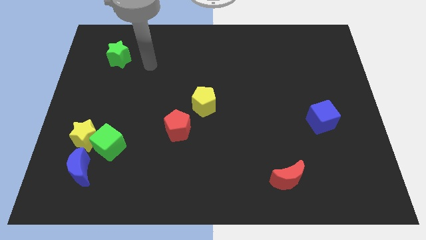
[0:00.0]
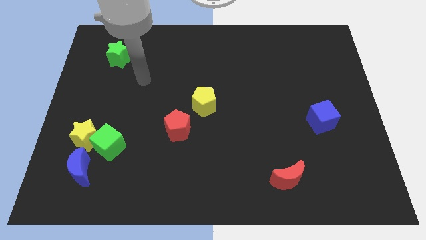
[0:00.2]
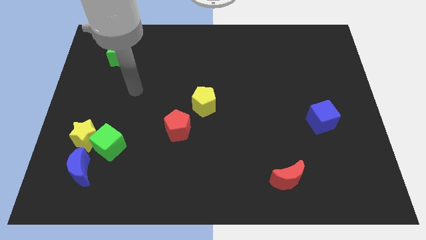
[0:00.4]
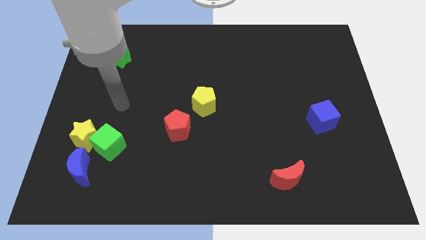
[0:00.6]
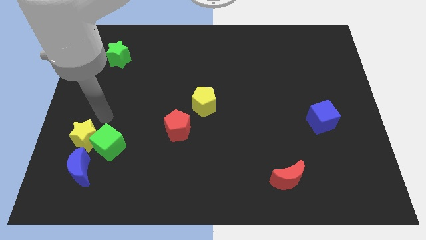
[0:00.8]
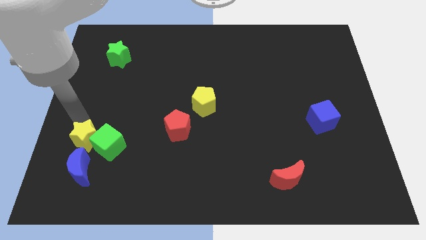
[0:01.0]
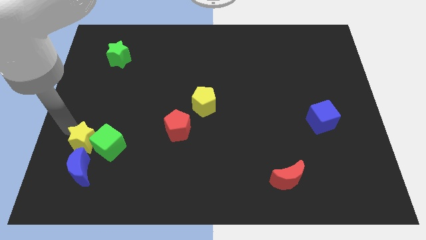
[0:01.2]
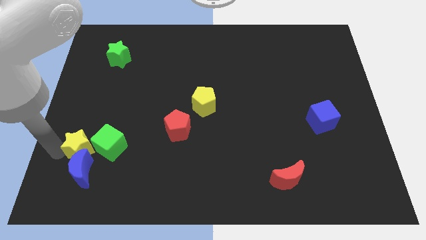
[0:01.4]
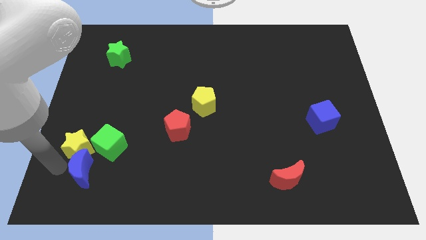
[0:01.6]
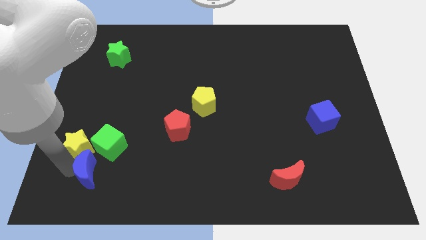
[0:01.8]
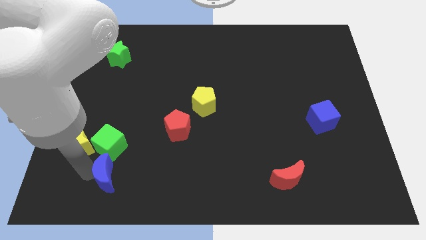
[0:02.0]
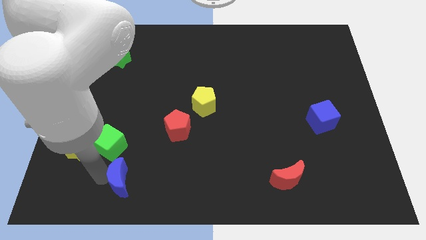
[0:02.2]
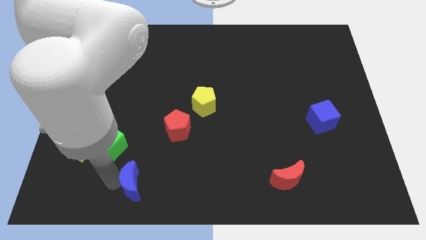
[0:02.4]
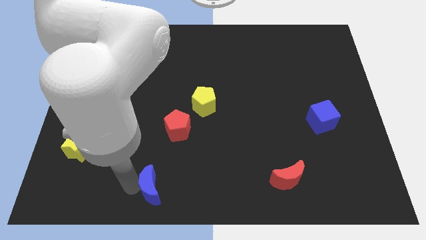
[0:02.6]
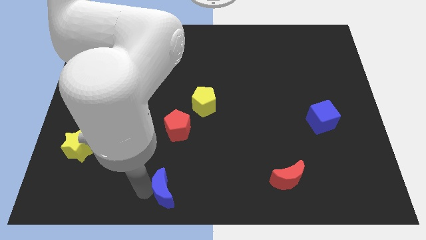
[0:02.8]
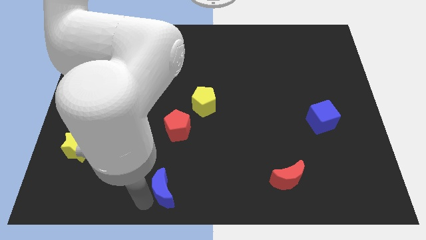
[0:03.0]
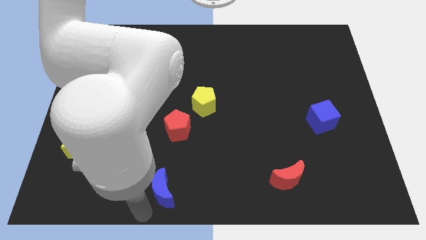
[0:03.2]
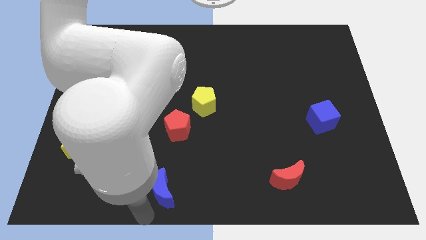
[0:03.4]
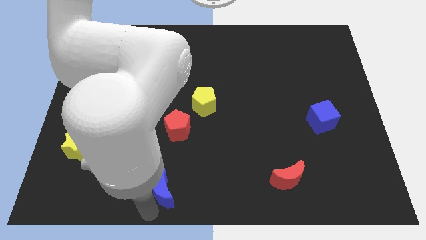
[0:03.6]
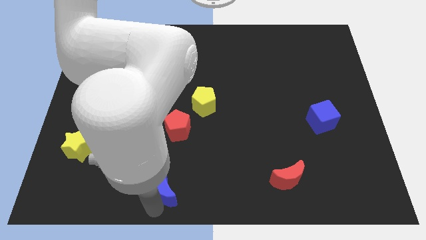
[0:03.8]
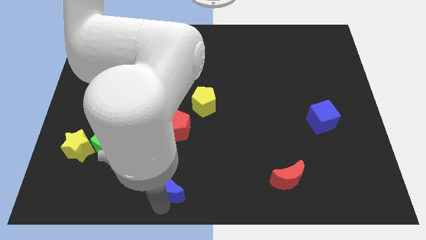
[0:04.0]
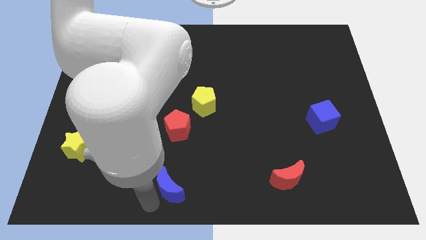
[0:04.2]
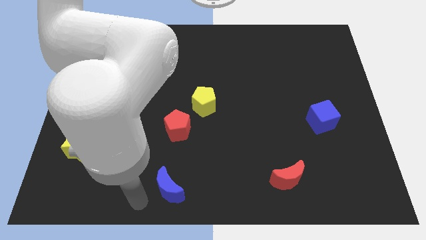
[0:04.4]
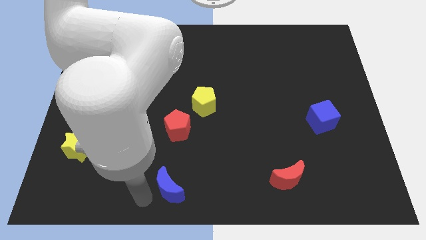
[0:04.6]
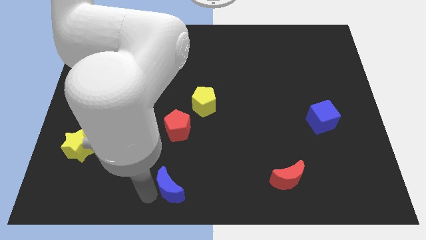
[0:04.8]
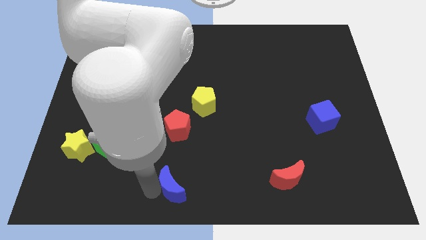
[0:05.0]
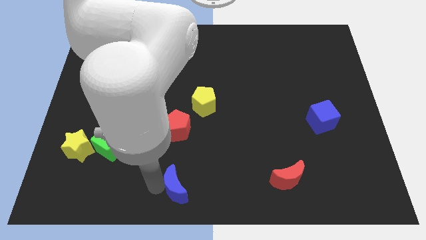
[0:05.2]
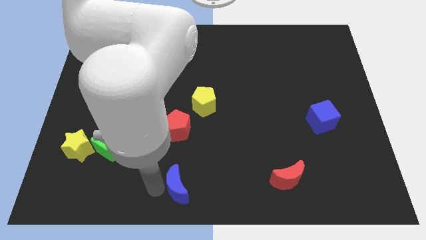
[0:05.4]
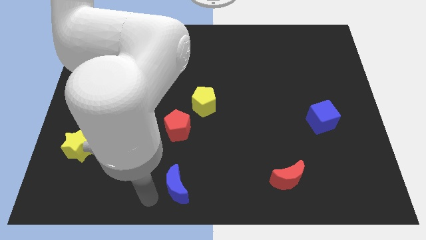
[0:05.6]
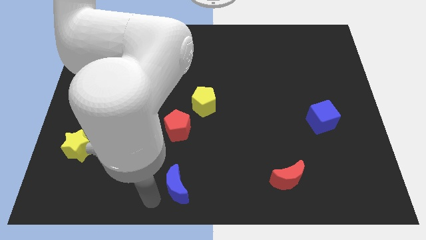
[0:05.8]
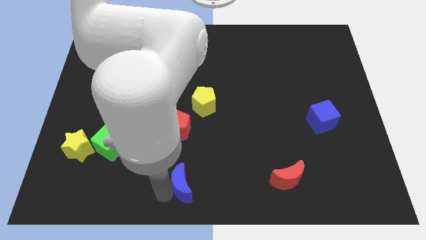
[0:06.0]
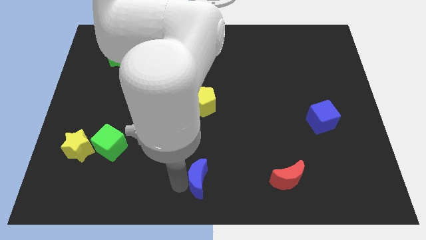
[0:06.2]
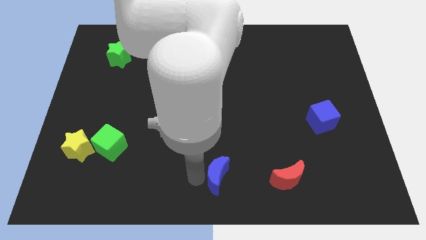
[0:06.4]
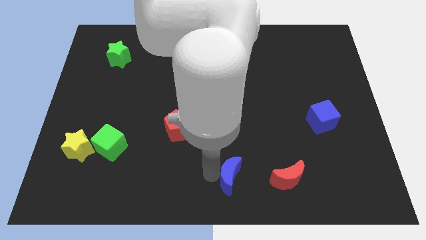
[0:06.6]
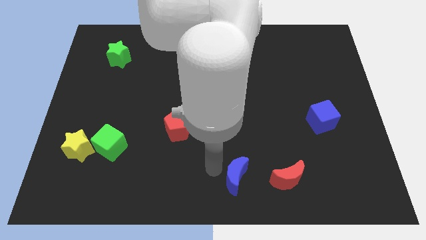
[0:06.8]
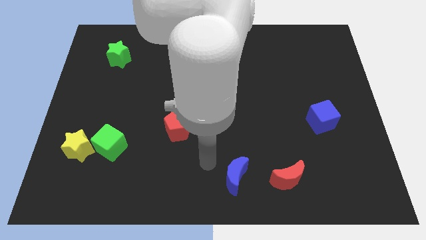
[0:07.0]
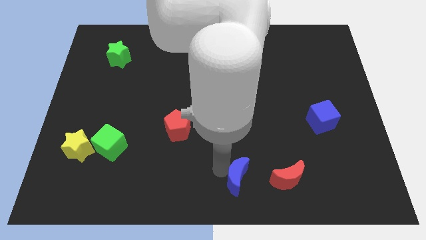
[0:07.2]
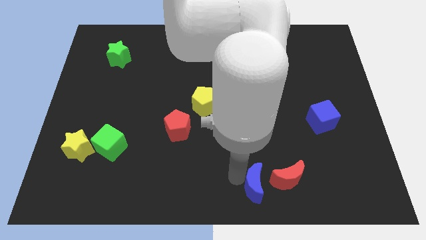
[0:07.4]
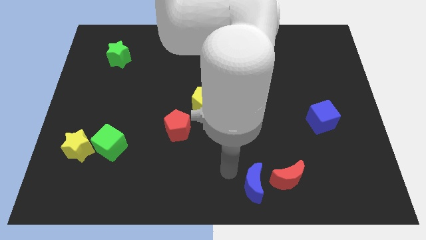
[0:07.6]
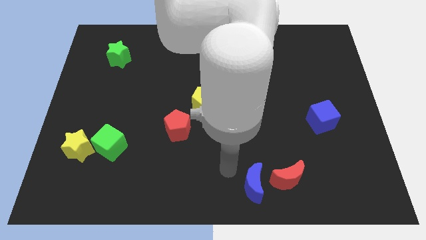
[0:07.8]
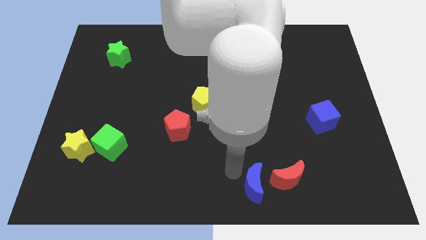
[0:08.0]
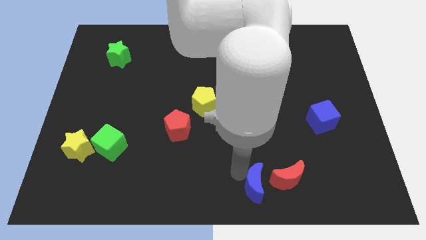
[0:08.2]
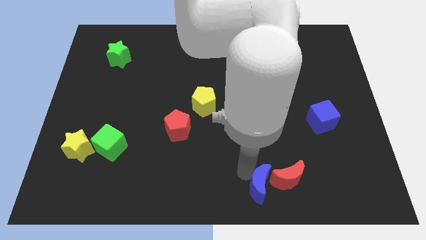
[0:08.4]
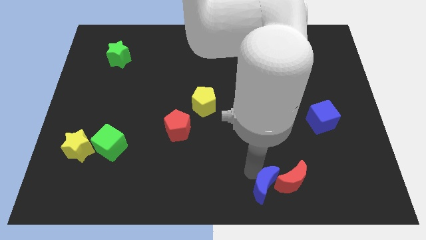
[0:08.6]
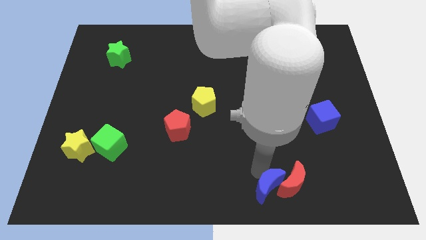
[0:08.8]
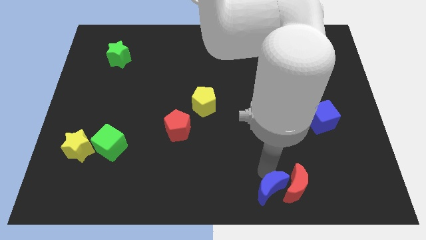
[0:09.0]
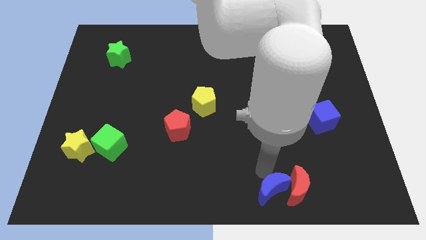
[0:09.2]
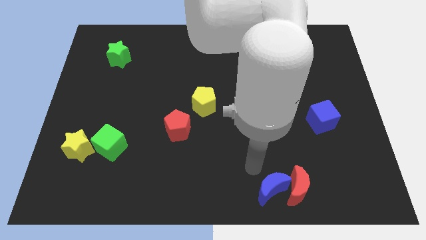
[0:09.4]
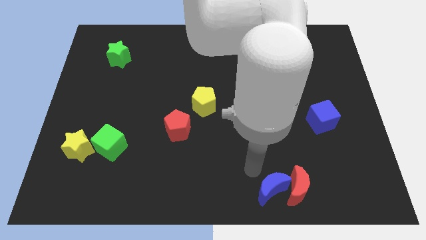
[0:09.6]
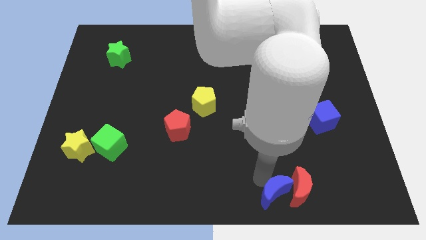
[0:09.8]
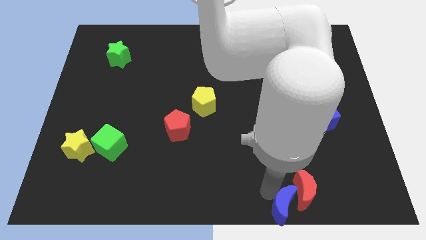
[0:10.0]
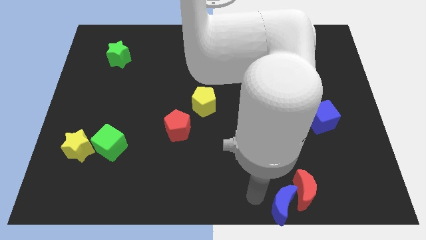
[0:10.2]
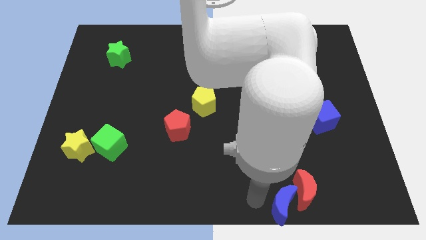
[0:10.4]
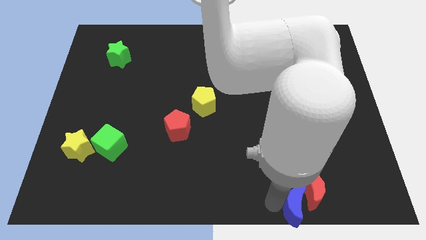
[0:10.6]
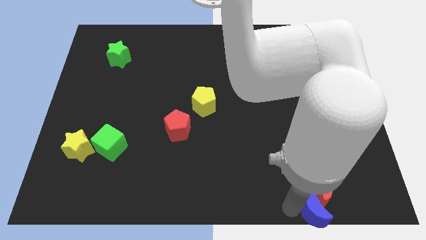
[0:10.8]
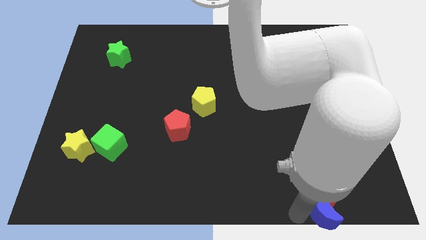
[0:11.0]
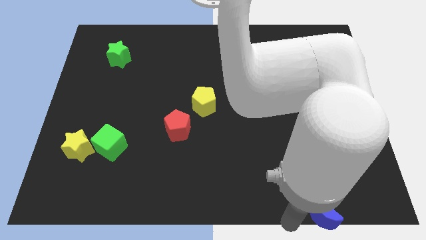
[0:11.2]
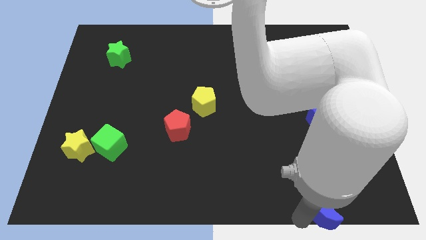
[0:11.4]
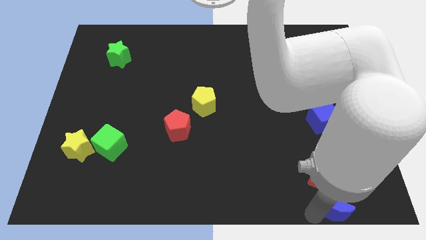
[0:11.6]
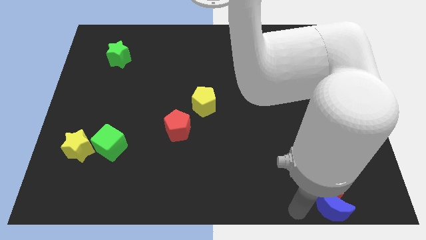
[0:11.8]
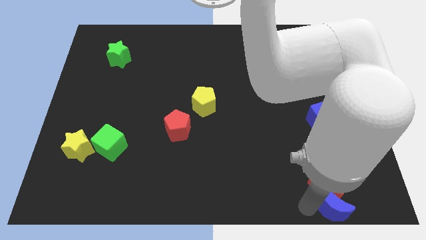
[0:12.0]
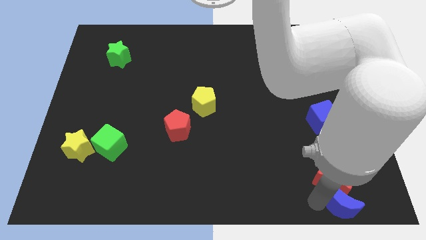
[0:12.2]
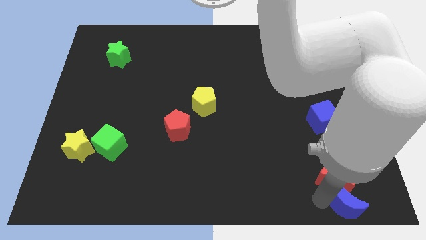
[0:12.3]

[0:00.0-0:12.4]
push the blue moon to the bottom right
